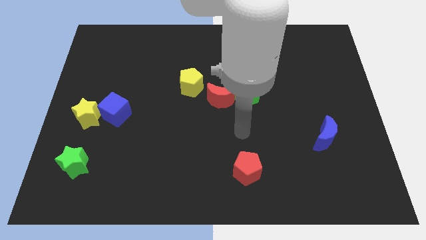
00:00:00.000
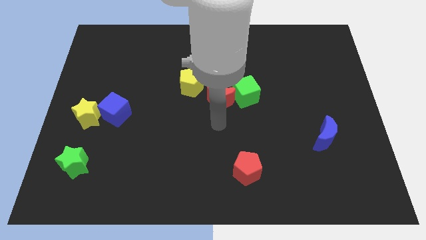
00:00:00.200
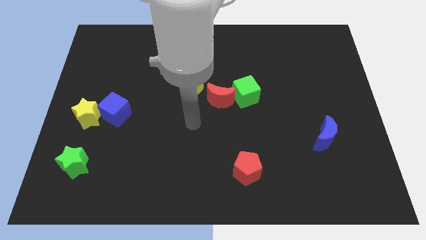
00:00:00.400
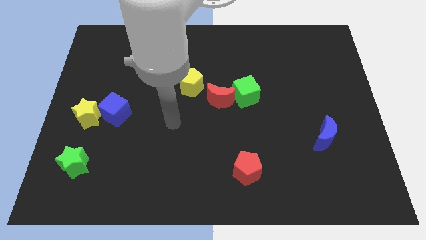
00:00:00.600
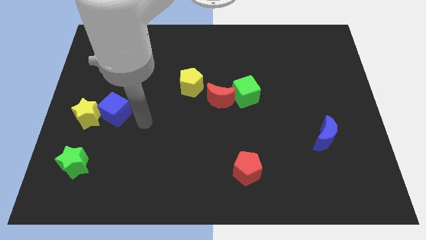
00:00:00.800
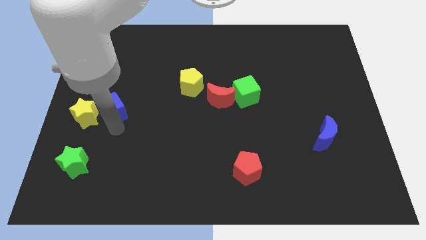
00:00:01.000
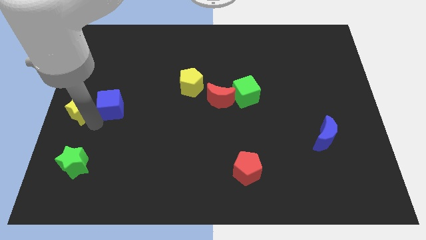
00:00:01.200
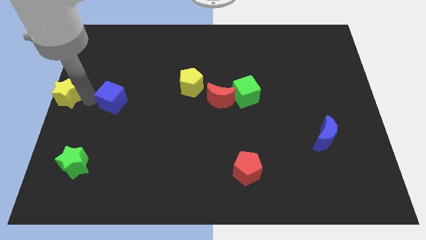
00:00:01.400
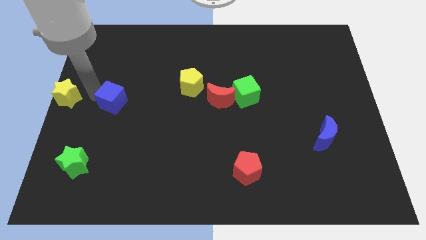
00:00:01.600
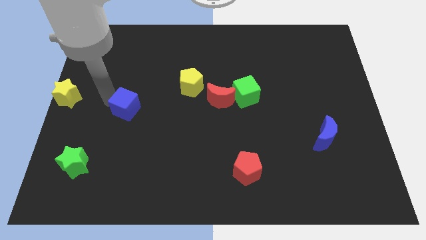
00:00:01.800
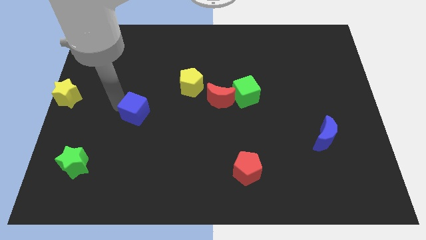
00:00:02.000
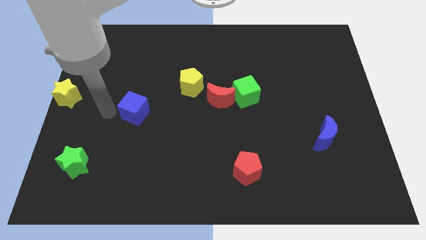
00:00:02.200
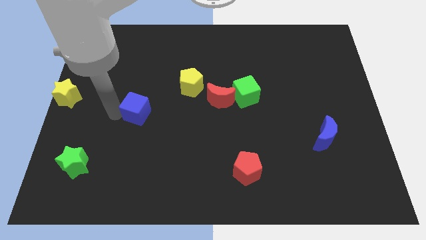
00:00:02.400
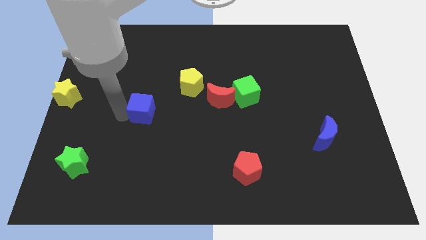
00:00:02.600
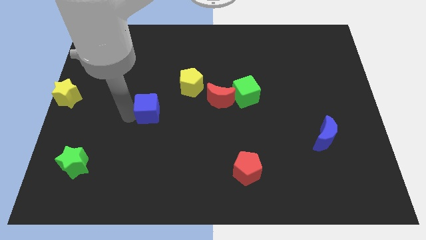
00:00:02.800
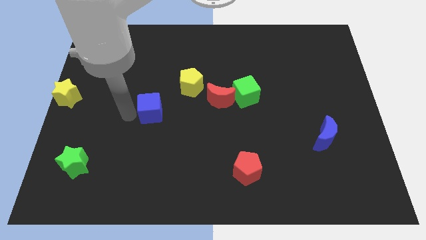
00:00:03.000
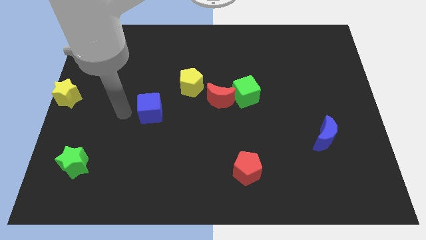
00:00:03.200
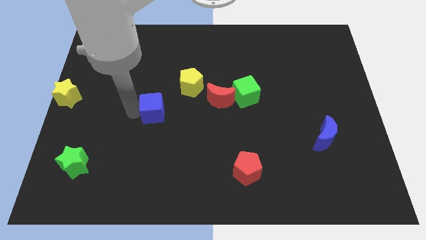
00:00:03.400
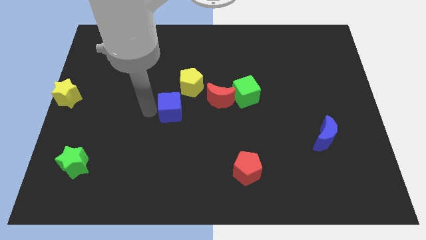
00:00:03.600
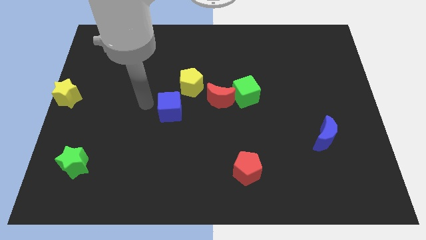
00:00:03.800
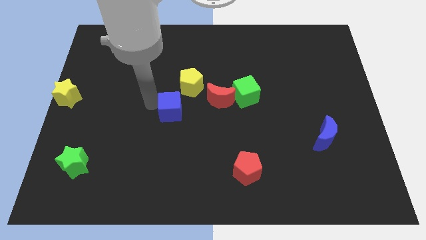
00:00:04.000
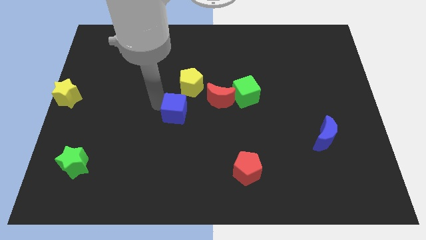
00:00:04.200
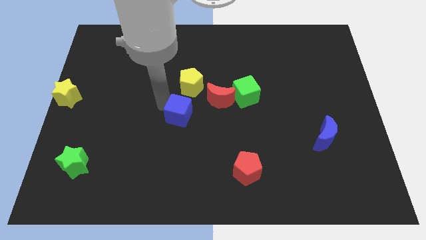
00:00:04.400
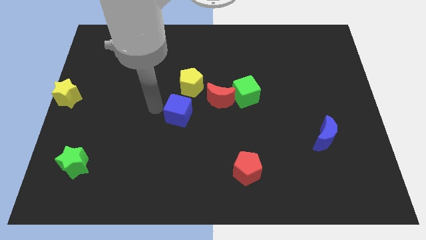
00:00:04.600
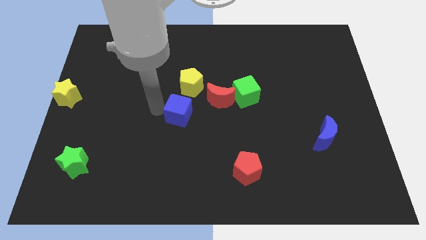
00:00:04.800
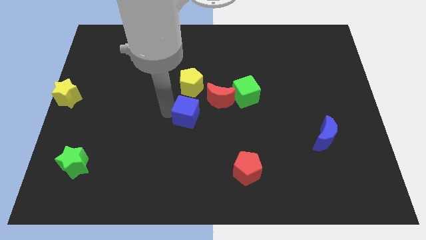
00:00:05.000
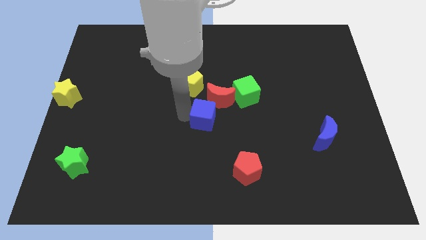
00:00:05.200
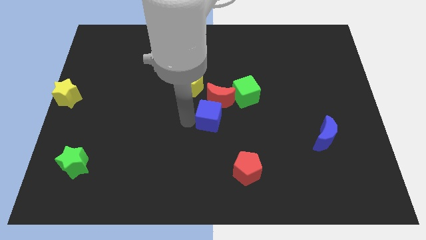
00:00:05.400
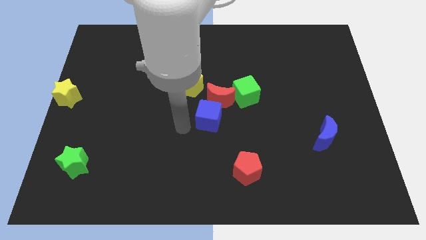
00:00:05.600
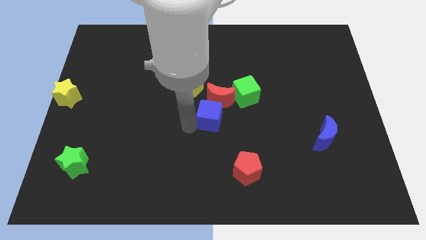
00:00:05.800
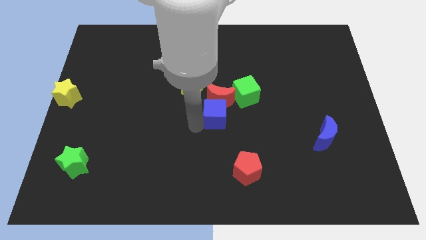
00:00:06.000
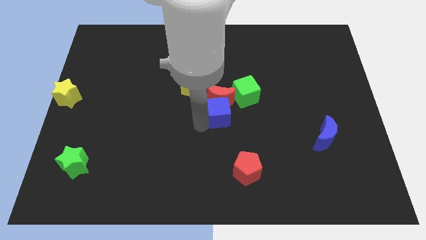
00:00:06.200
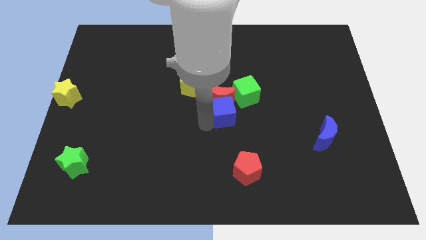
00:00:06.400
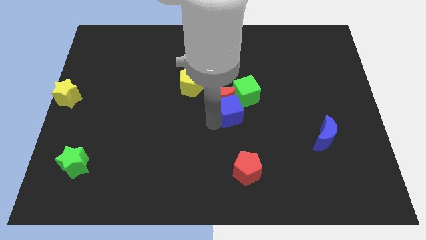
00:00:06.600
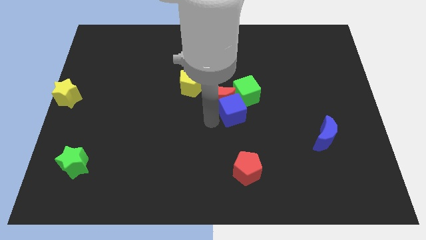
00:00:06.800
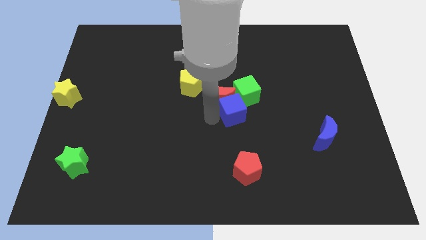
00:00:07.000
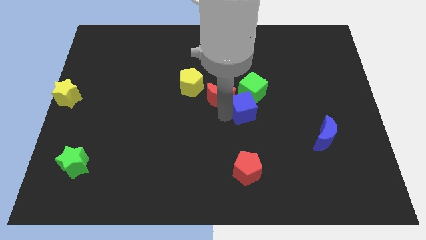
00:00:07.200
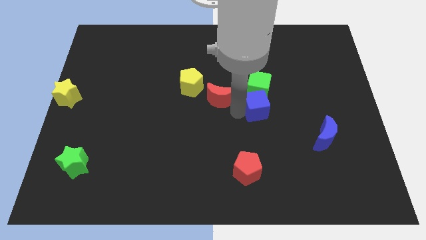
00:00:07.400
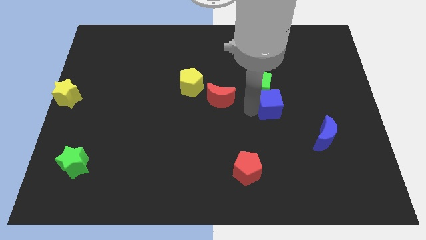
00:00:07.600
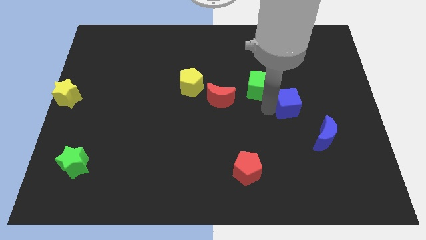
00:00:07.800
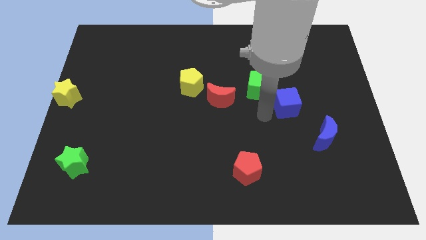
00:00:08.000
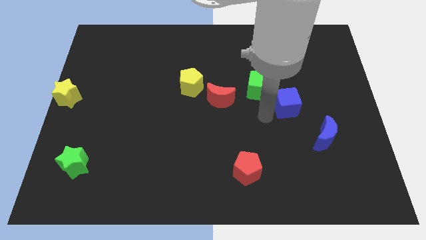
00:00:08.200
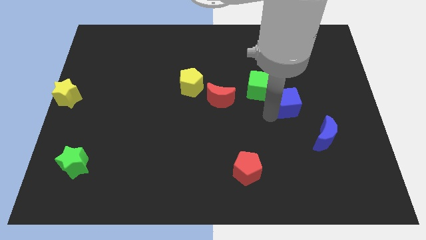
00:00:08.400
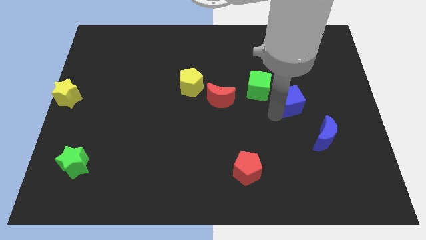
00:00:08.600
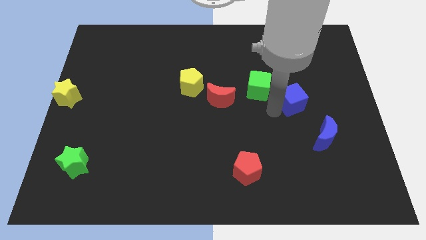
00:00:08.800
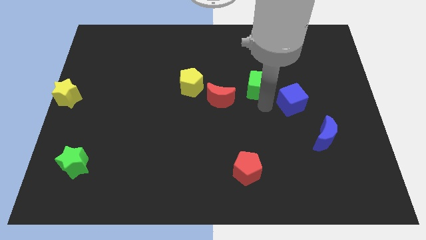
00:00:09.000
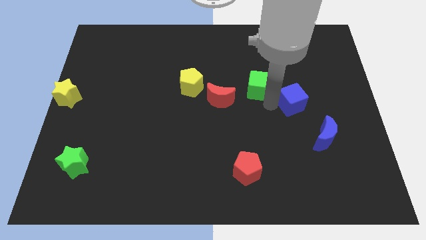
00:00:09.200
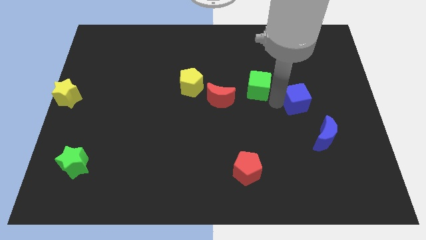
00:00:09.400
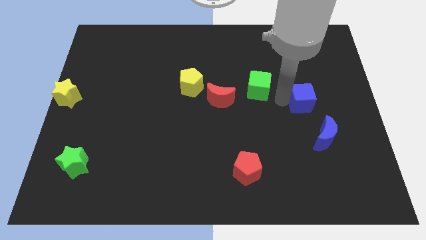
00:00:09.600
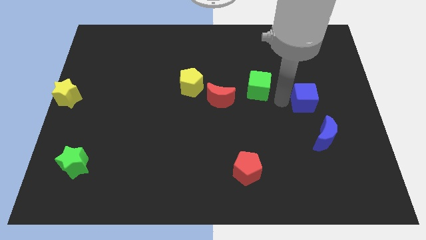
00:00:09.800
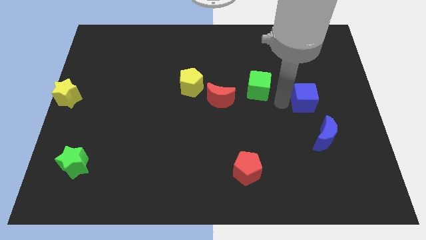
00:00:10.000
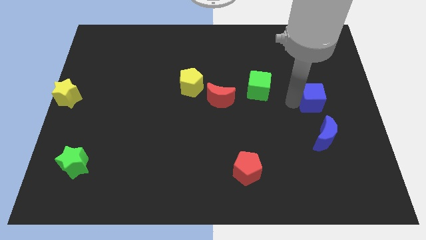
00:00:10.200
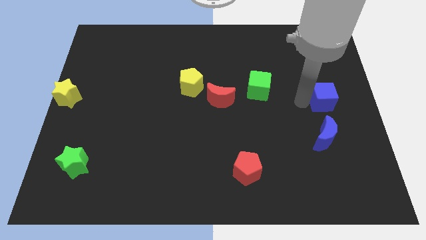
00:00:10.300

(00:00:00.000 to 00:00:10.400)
slide the blue cube to the right side of the board

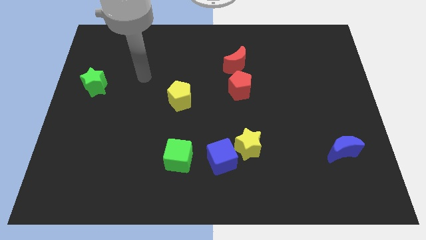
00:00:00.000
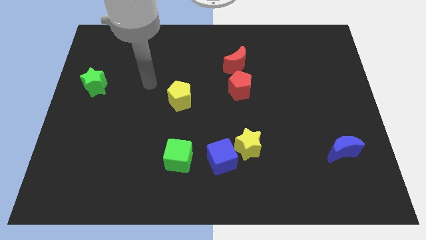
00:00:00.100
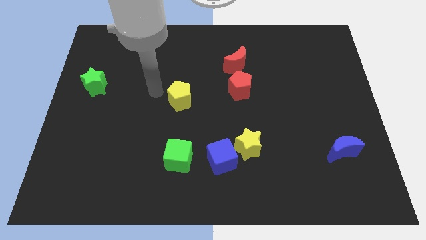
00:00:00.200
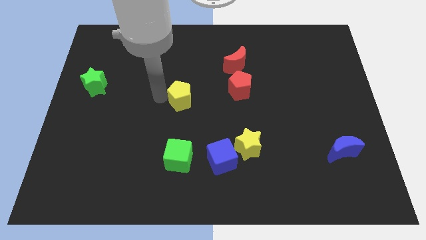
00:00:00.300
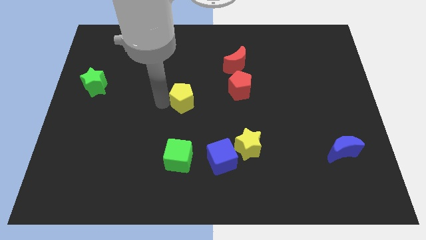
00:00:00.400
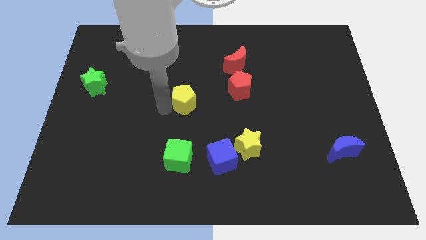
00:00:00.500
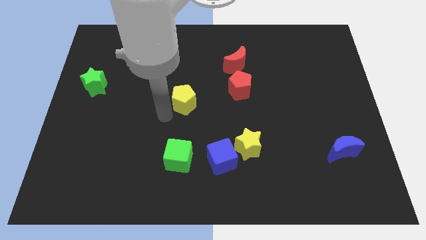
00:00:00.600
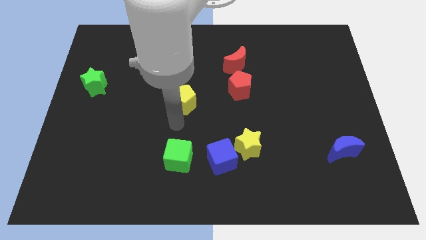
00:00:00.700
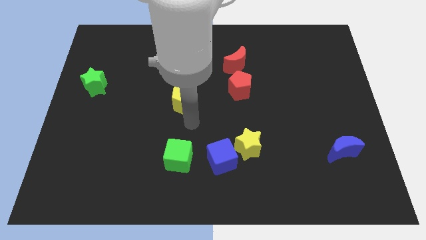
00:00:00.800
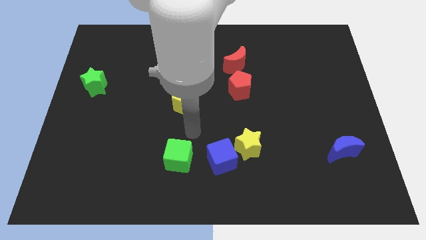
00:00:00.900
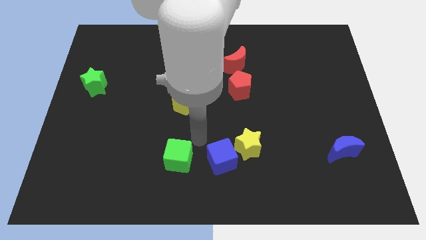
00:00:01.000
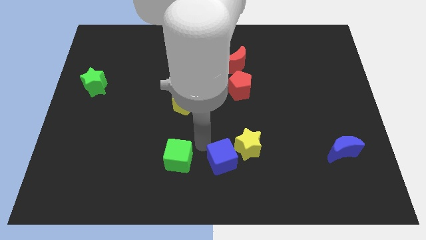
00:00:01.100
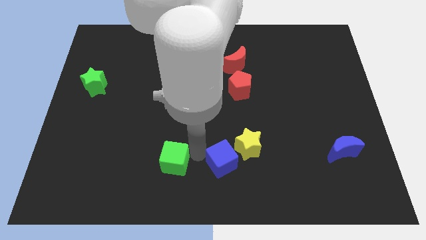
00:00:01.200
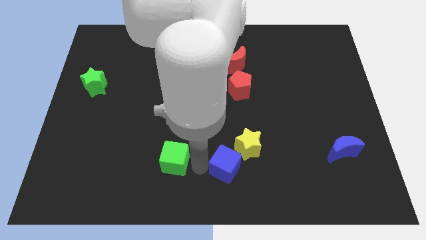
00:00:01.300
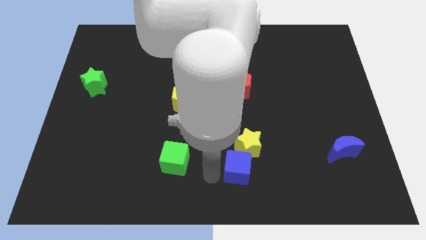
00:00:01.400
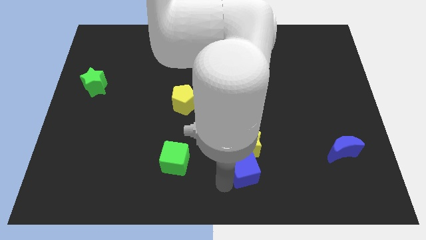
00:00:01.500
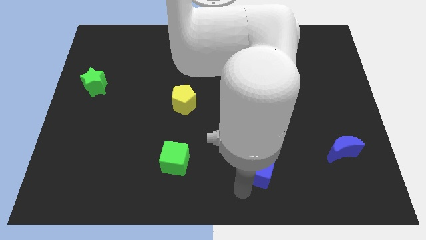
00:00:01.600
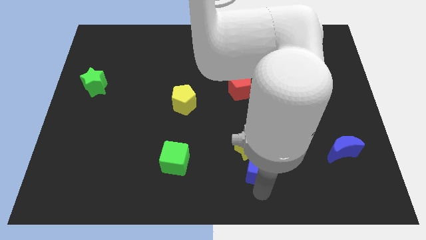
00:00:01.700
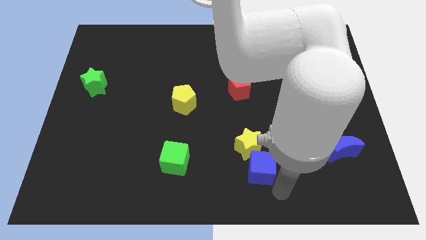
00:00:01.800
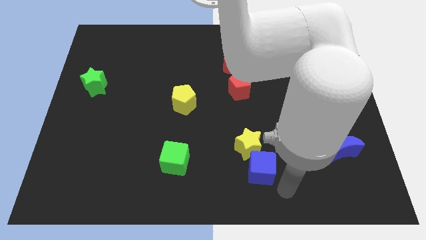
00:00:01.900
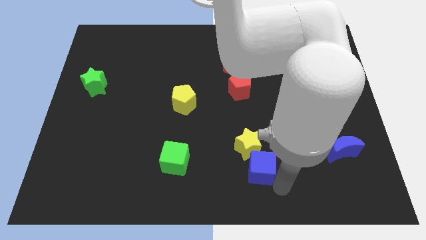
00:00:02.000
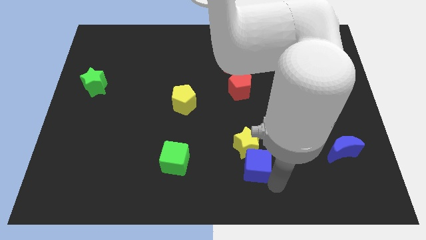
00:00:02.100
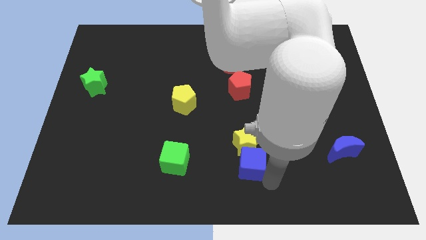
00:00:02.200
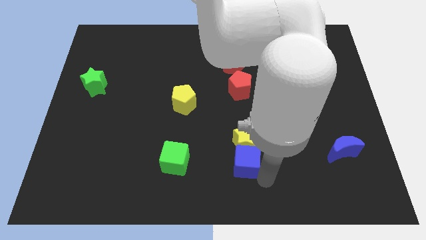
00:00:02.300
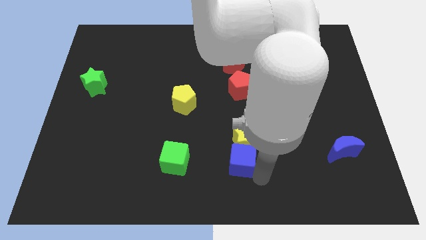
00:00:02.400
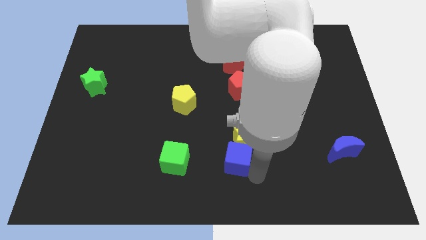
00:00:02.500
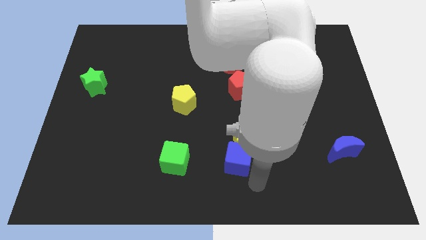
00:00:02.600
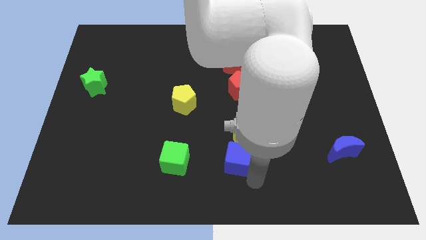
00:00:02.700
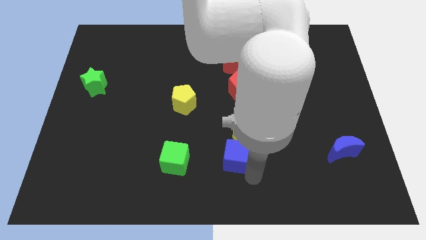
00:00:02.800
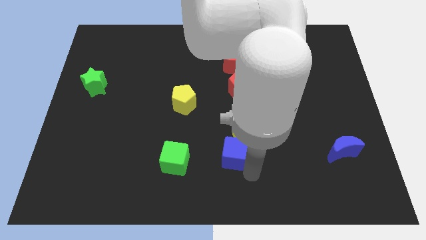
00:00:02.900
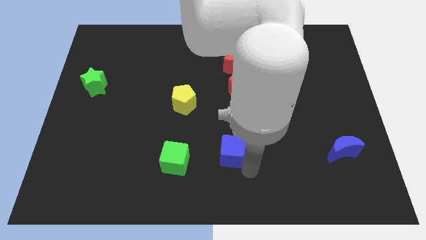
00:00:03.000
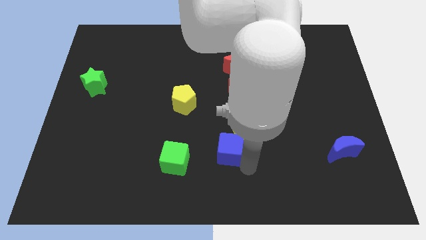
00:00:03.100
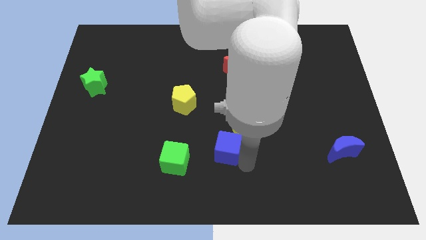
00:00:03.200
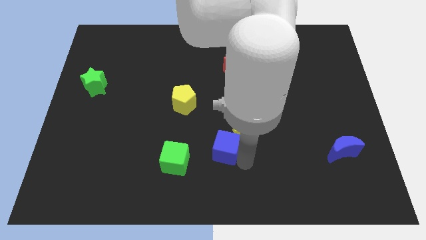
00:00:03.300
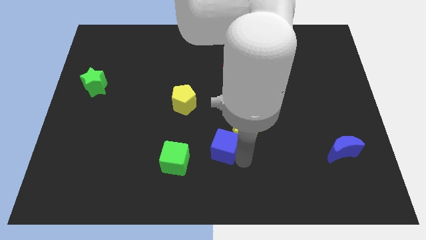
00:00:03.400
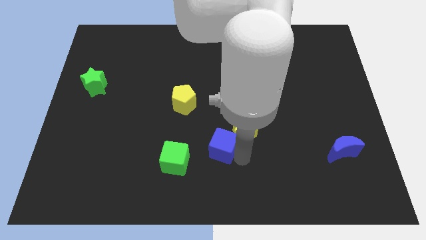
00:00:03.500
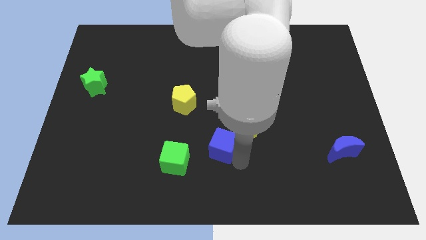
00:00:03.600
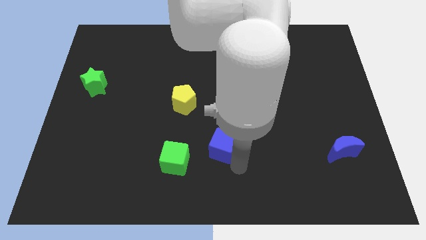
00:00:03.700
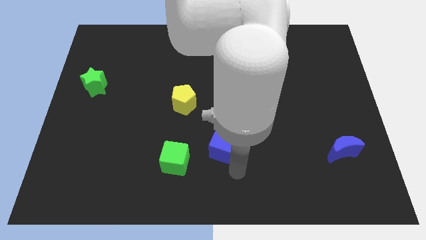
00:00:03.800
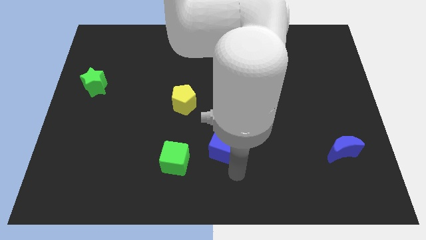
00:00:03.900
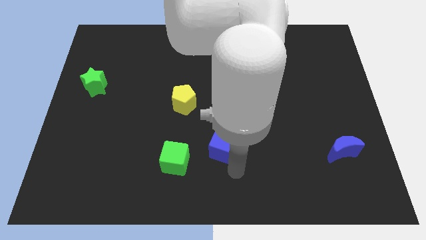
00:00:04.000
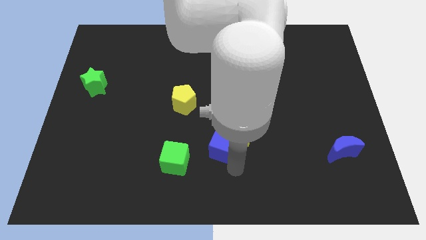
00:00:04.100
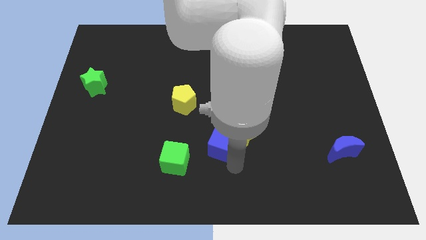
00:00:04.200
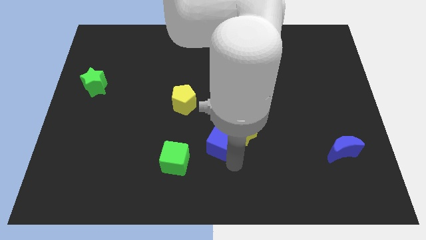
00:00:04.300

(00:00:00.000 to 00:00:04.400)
move the blue cube to the middle
